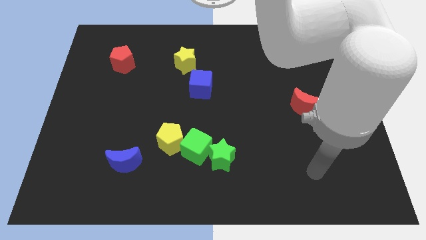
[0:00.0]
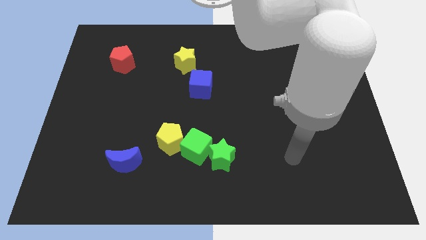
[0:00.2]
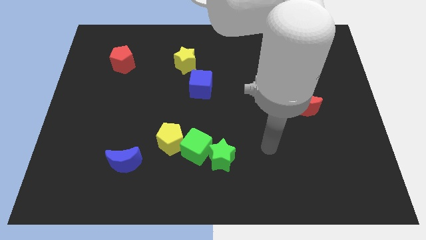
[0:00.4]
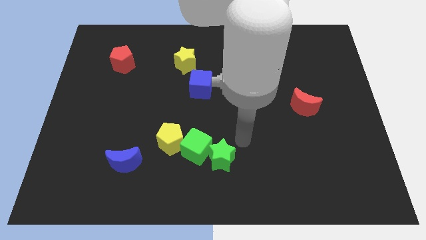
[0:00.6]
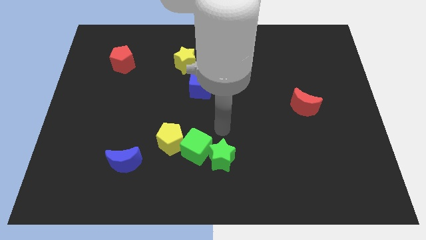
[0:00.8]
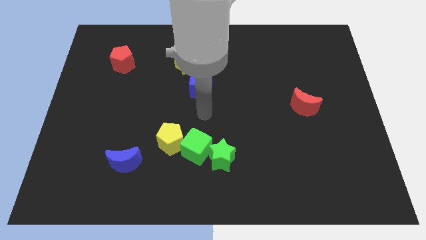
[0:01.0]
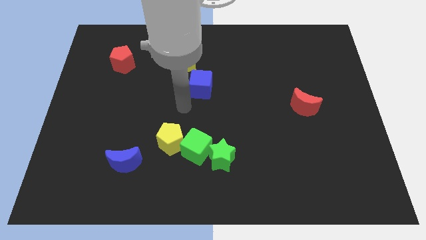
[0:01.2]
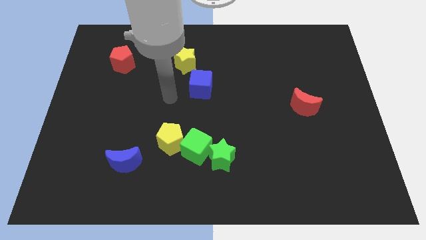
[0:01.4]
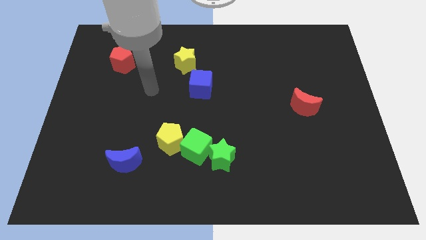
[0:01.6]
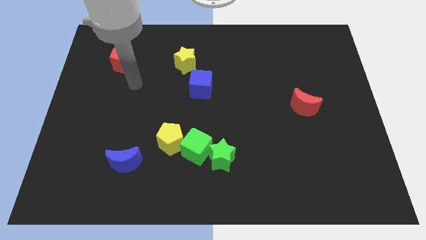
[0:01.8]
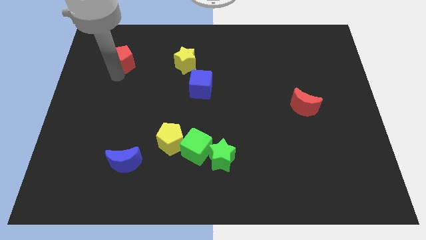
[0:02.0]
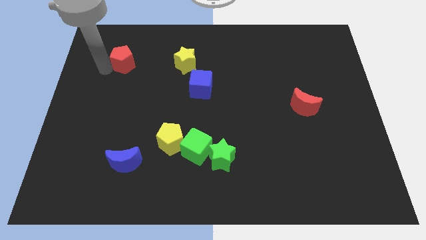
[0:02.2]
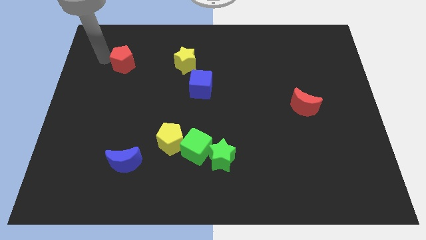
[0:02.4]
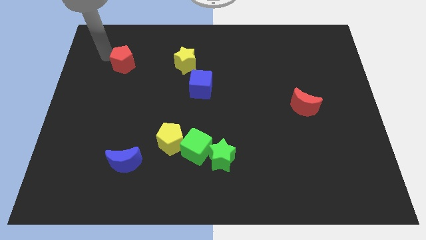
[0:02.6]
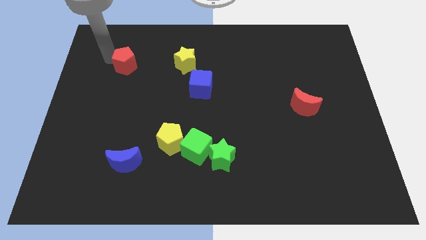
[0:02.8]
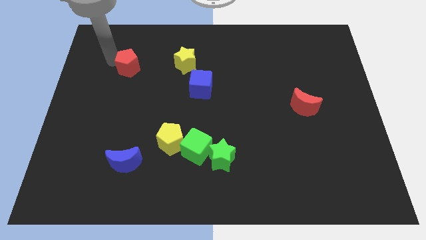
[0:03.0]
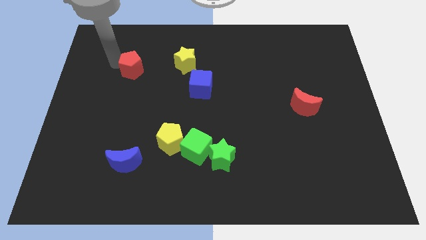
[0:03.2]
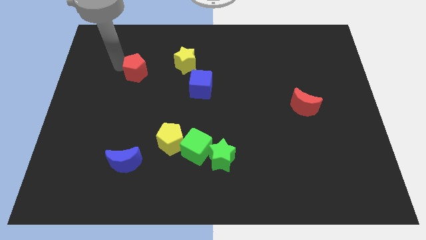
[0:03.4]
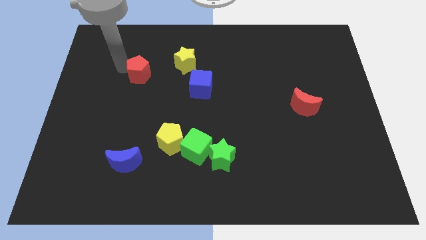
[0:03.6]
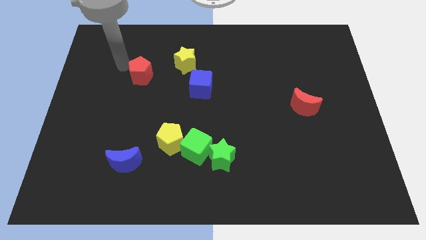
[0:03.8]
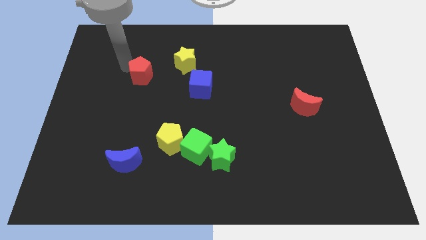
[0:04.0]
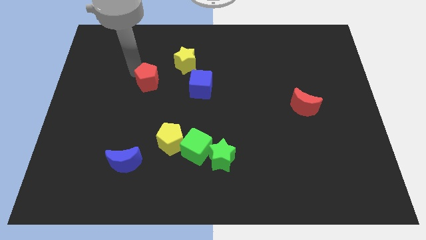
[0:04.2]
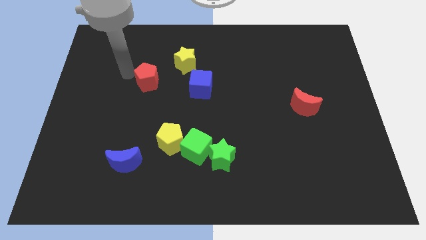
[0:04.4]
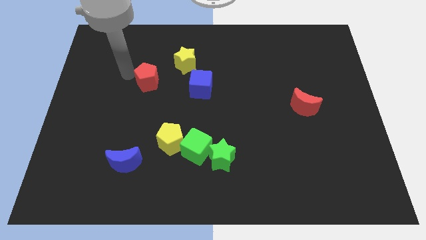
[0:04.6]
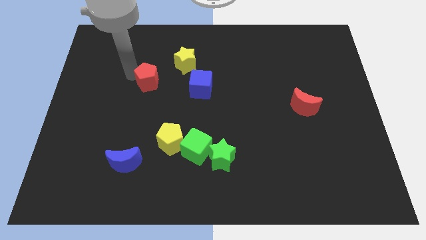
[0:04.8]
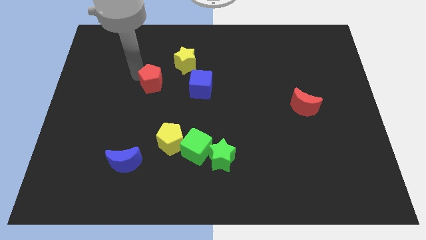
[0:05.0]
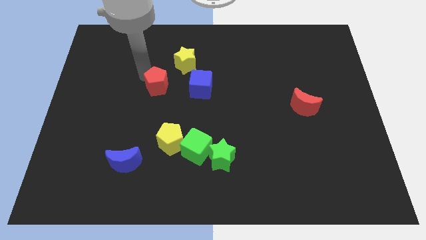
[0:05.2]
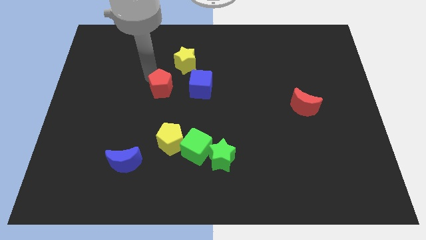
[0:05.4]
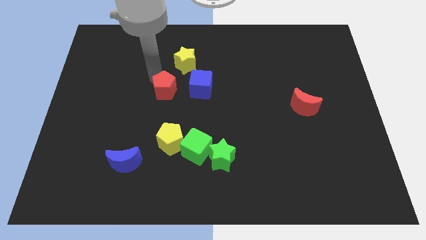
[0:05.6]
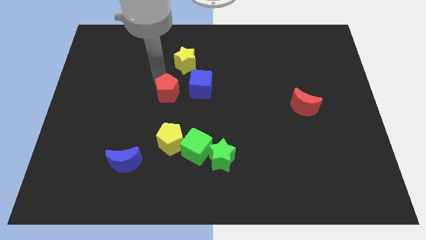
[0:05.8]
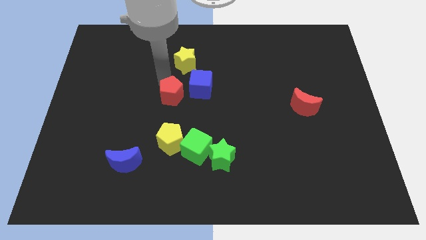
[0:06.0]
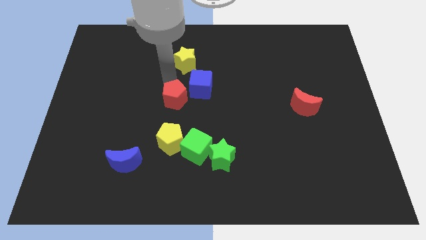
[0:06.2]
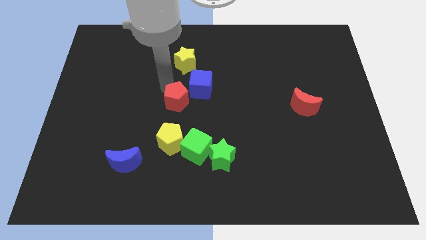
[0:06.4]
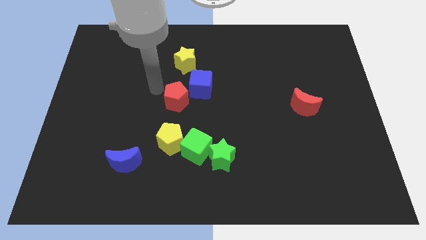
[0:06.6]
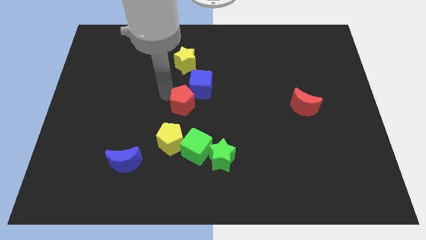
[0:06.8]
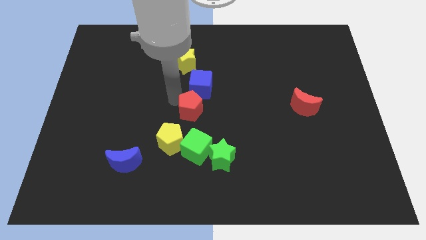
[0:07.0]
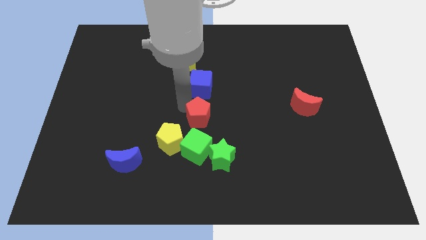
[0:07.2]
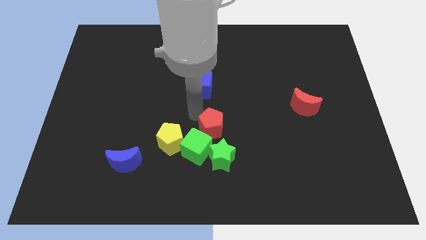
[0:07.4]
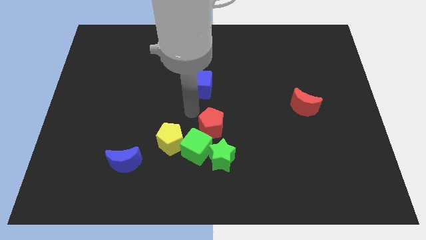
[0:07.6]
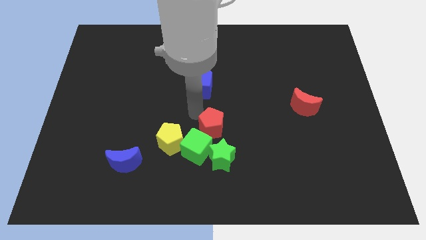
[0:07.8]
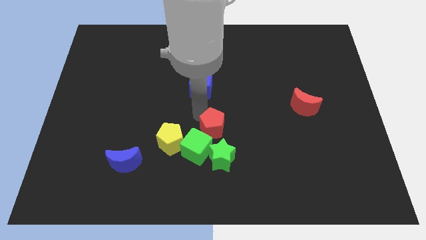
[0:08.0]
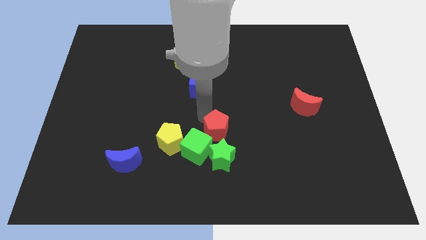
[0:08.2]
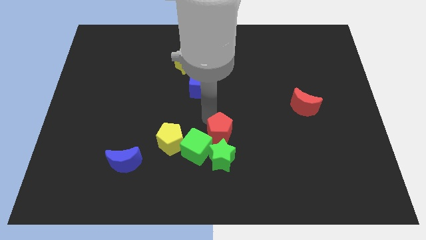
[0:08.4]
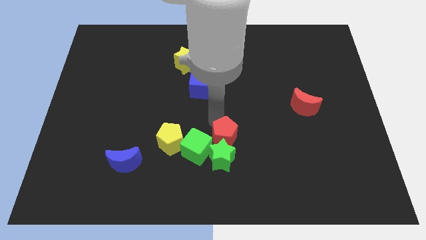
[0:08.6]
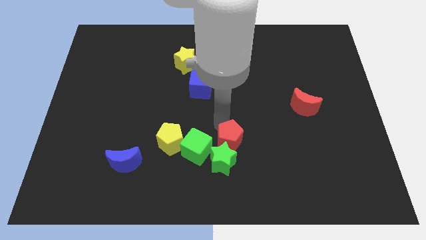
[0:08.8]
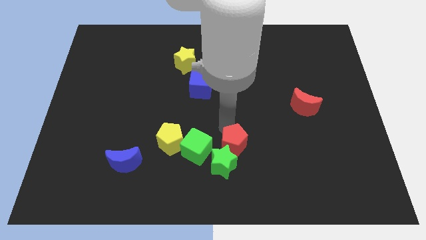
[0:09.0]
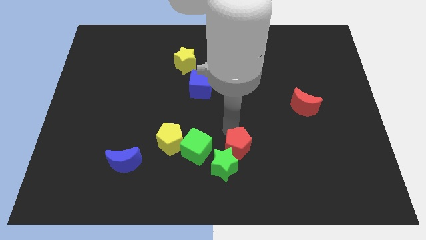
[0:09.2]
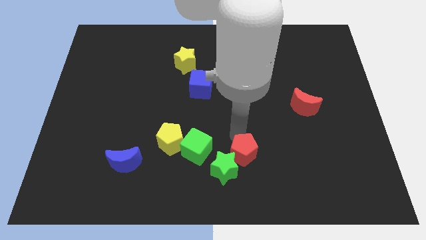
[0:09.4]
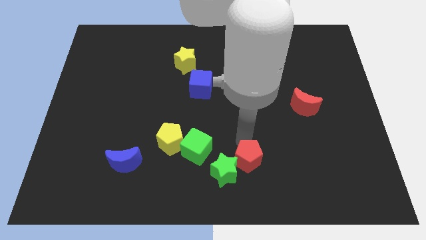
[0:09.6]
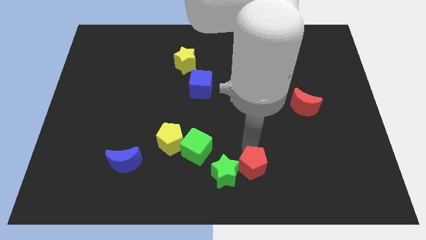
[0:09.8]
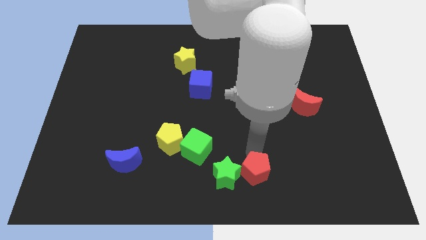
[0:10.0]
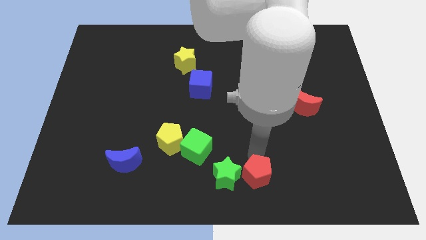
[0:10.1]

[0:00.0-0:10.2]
slide the red pentagon to the bottom right of the green star

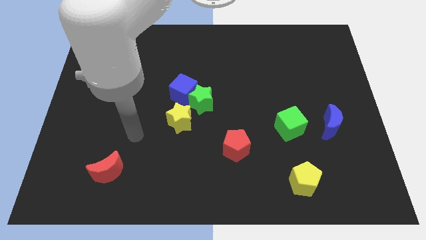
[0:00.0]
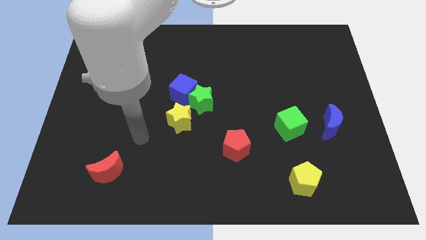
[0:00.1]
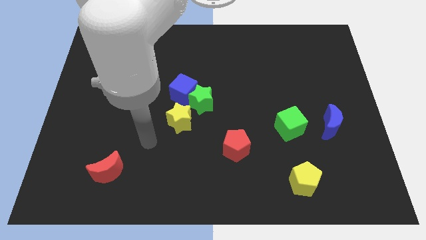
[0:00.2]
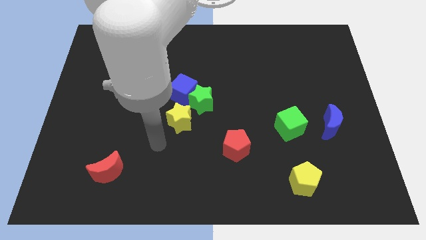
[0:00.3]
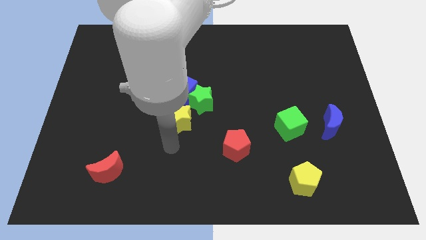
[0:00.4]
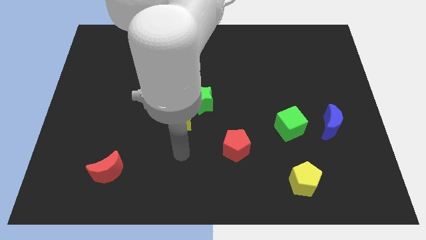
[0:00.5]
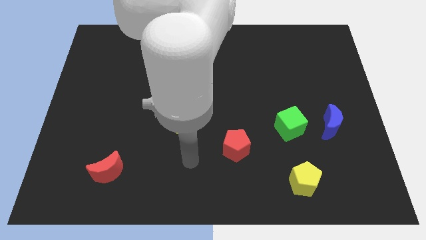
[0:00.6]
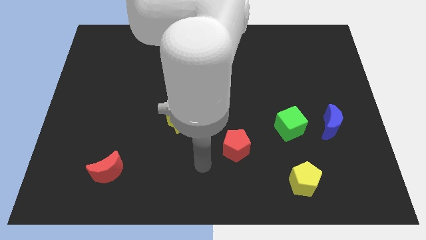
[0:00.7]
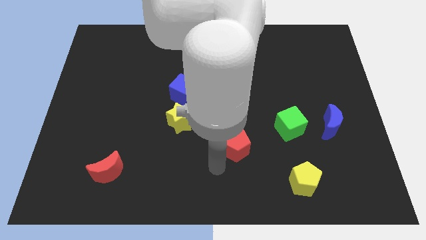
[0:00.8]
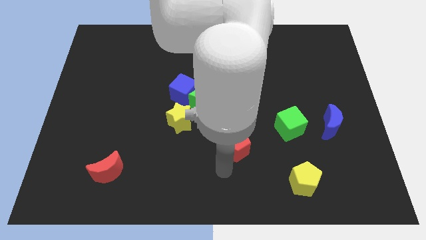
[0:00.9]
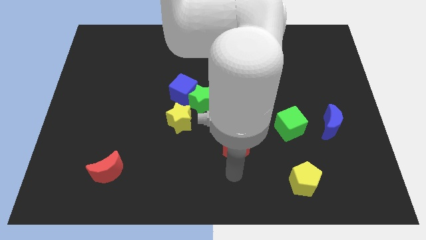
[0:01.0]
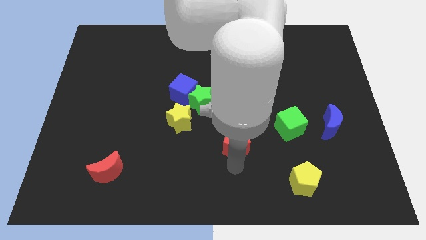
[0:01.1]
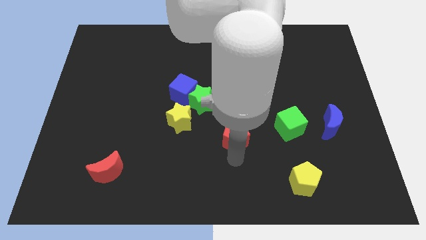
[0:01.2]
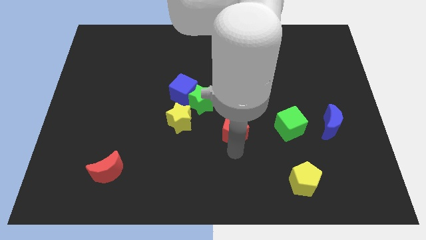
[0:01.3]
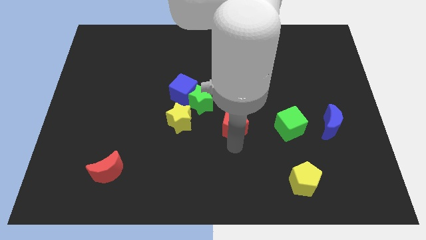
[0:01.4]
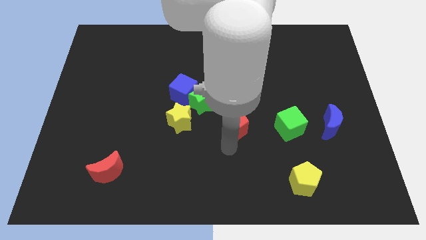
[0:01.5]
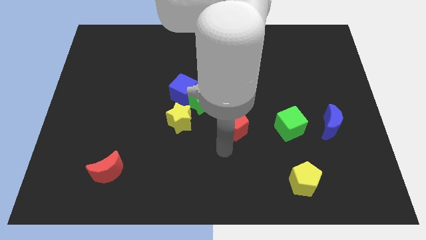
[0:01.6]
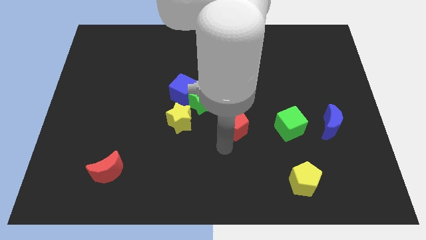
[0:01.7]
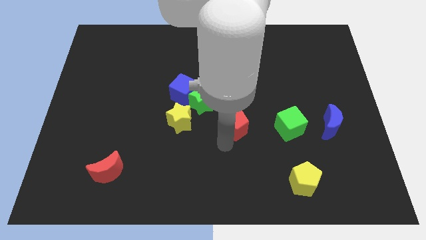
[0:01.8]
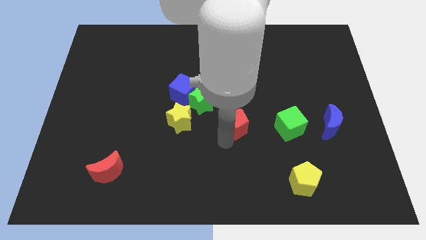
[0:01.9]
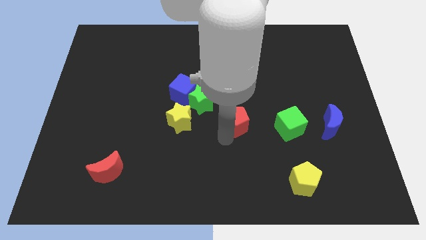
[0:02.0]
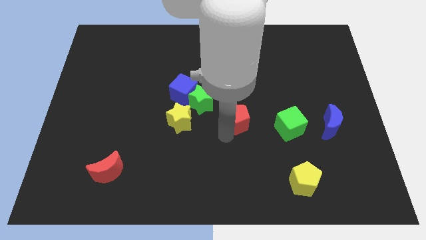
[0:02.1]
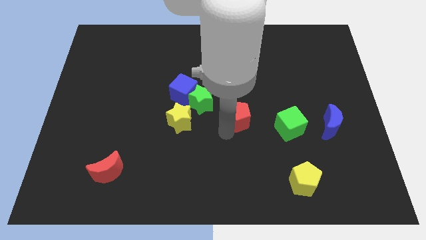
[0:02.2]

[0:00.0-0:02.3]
slide the red pentagon to the right side of the green star

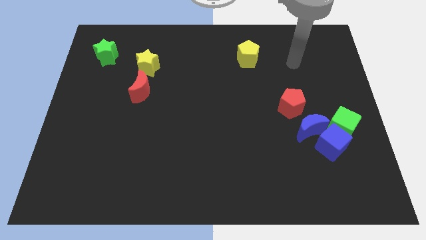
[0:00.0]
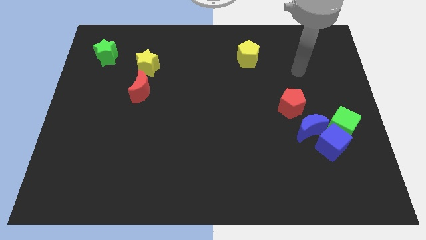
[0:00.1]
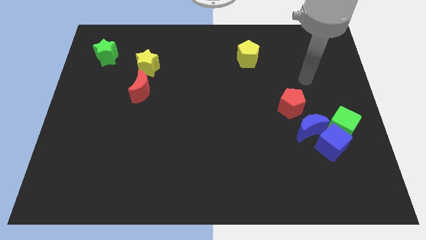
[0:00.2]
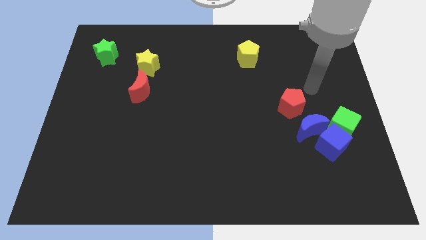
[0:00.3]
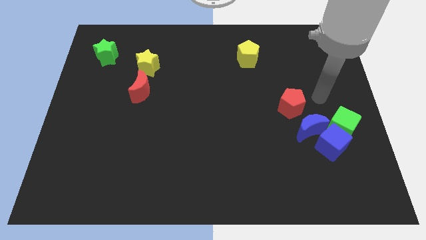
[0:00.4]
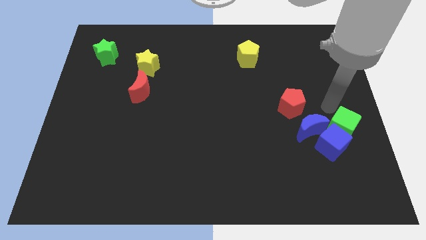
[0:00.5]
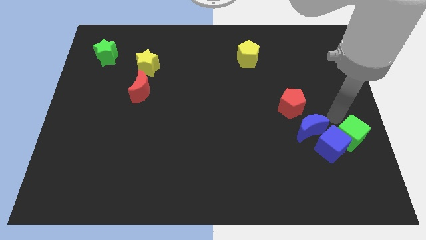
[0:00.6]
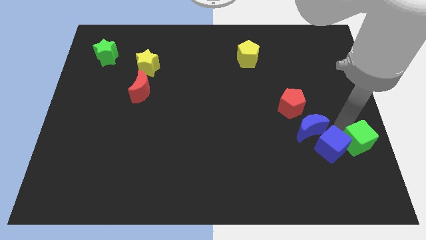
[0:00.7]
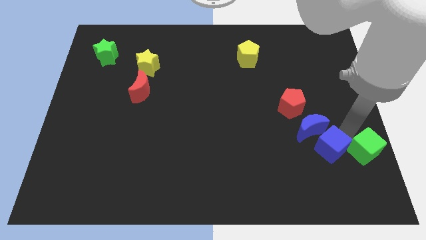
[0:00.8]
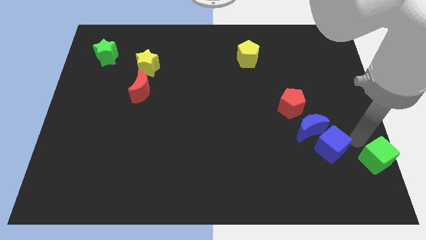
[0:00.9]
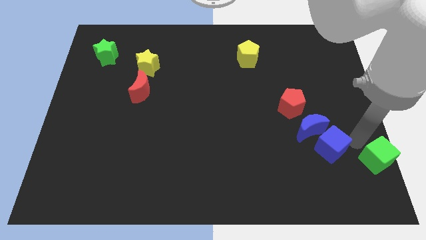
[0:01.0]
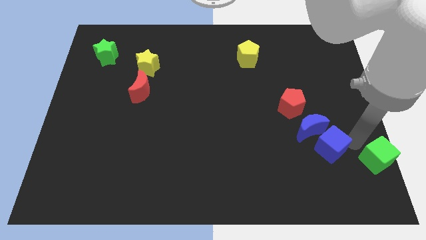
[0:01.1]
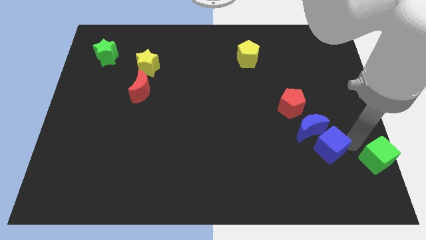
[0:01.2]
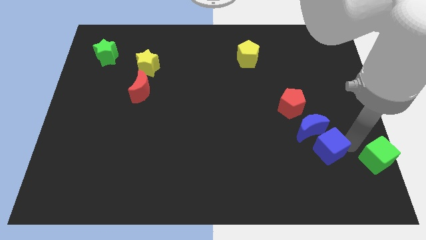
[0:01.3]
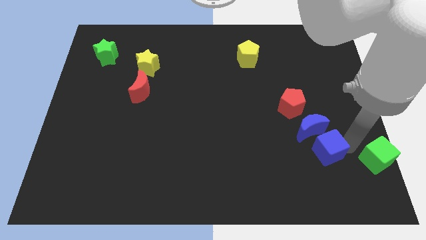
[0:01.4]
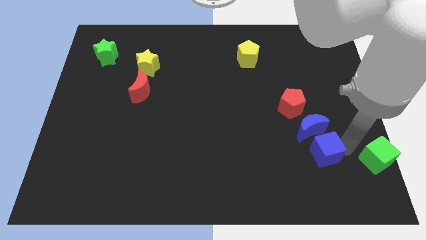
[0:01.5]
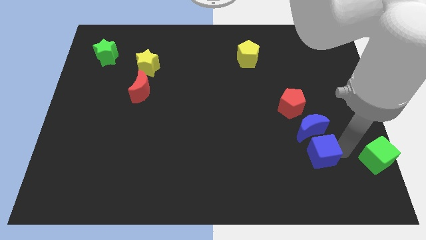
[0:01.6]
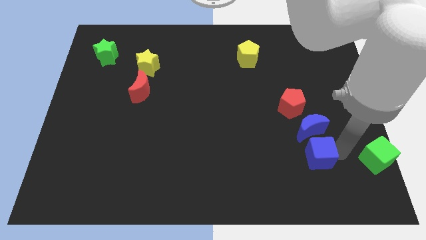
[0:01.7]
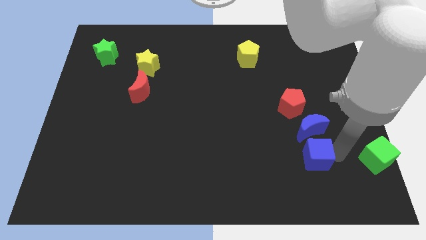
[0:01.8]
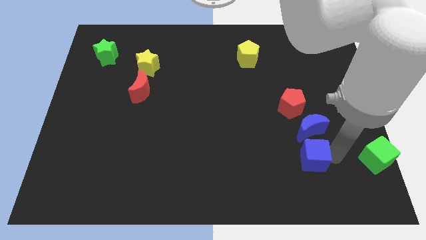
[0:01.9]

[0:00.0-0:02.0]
slide the blue cube to the bottom left side of the blue moon
